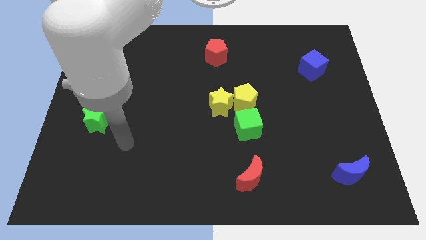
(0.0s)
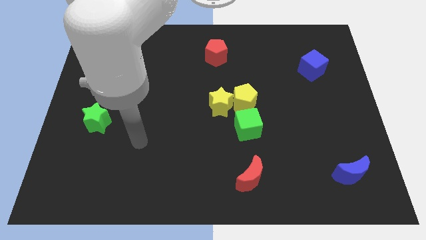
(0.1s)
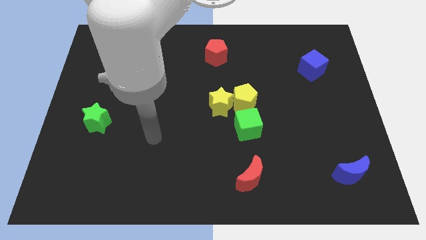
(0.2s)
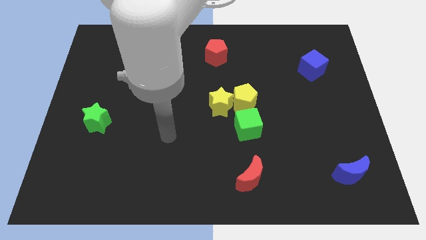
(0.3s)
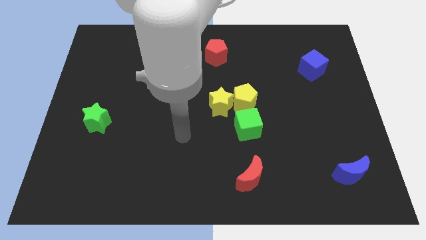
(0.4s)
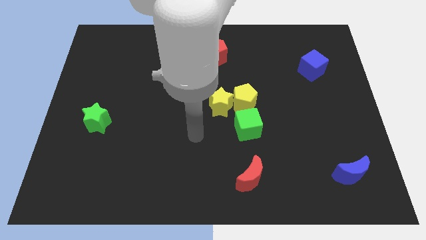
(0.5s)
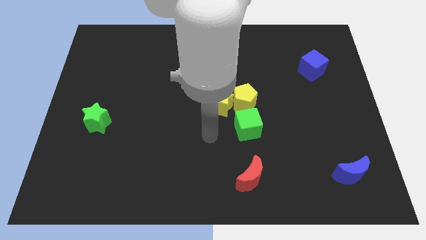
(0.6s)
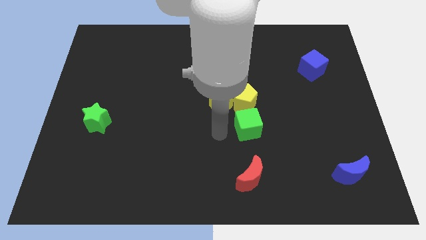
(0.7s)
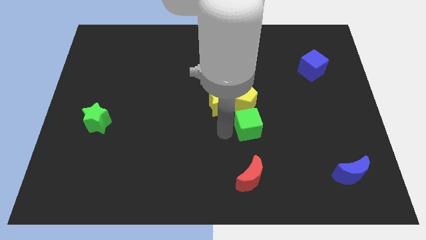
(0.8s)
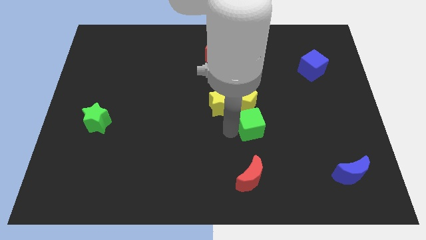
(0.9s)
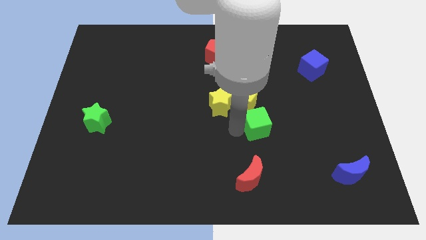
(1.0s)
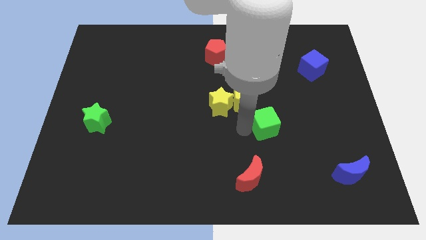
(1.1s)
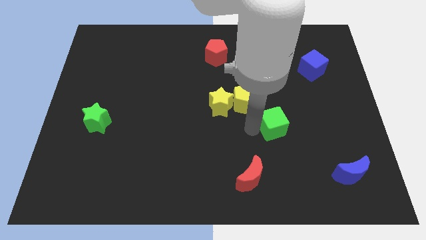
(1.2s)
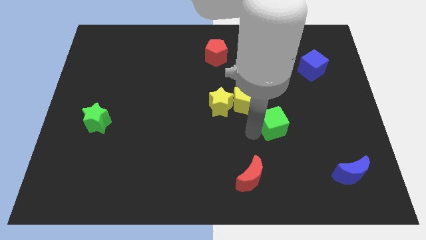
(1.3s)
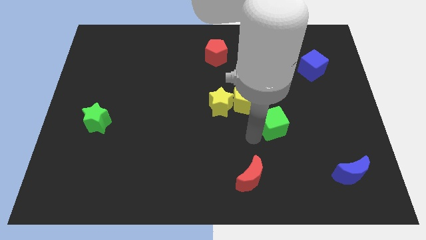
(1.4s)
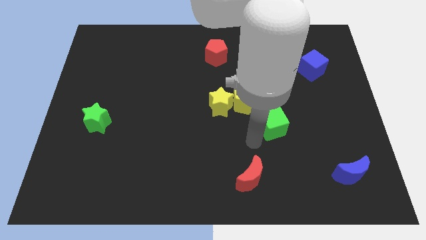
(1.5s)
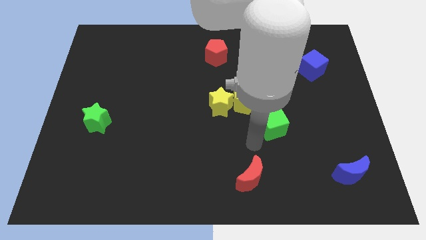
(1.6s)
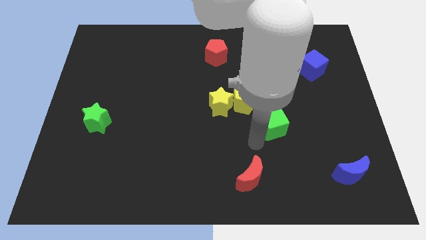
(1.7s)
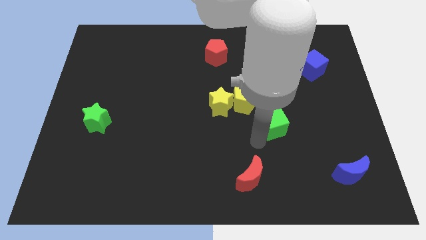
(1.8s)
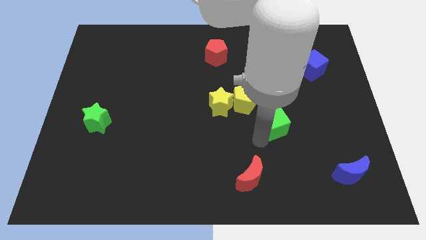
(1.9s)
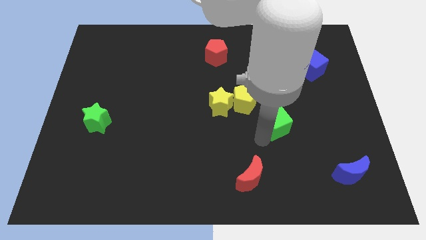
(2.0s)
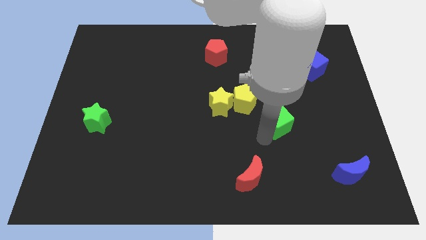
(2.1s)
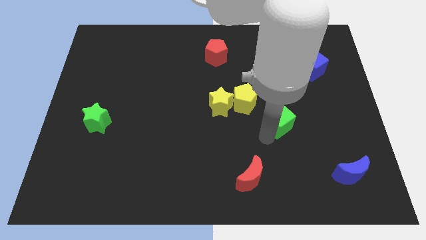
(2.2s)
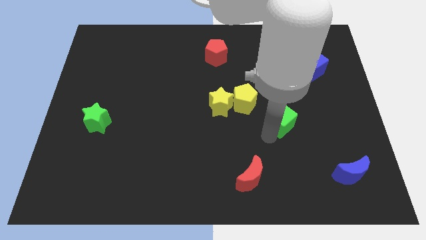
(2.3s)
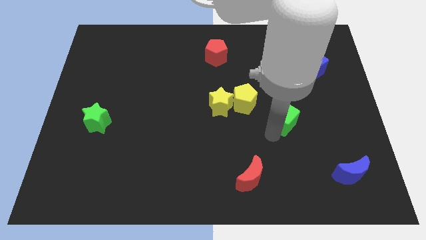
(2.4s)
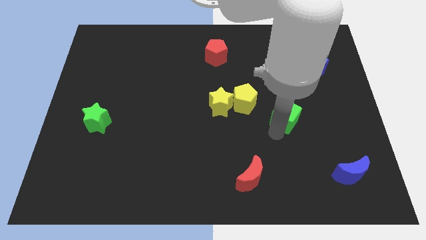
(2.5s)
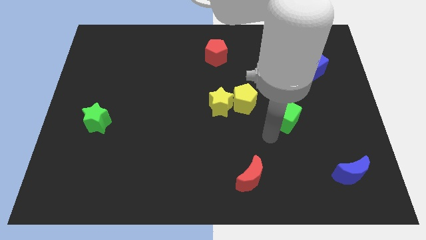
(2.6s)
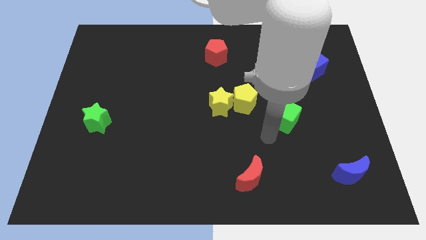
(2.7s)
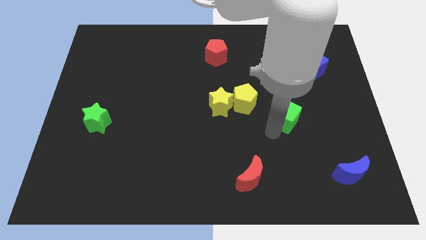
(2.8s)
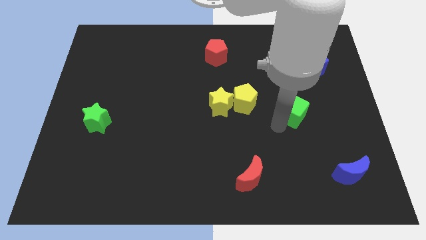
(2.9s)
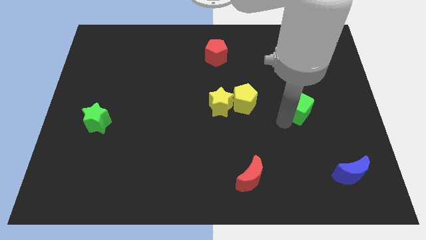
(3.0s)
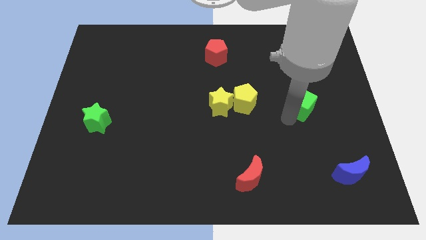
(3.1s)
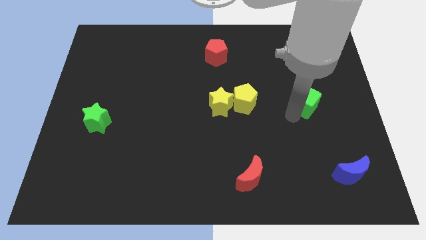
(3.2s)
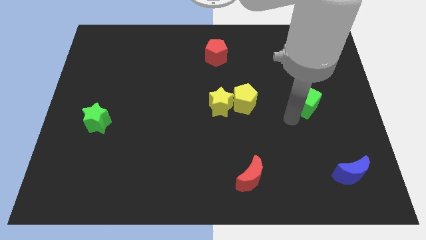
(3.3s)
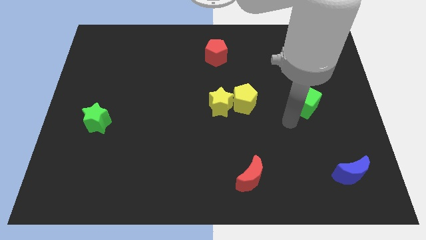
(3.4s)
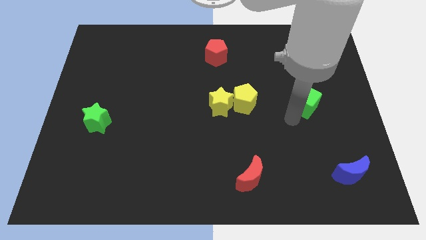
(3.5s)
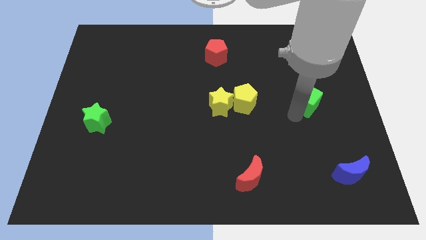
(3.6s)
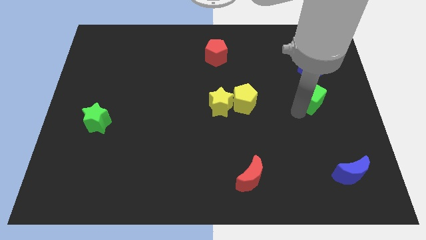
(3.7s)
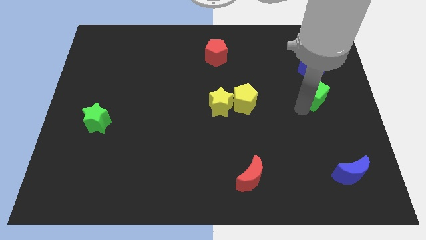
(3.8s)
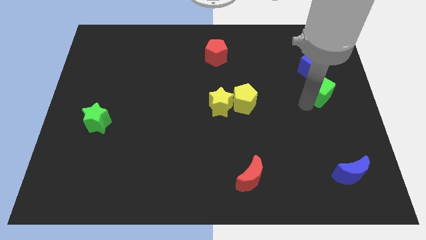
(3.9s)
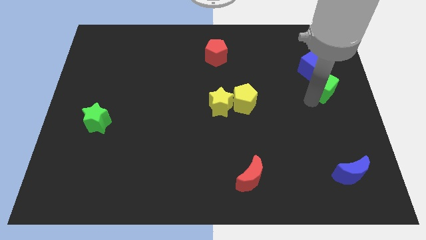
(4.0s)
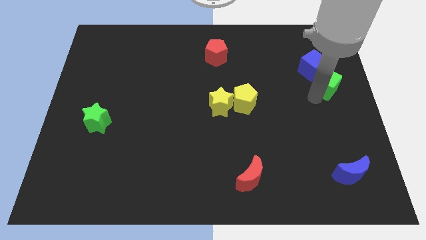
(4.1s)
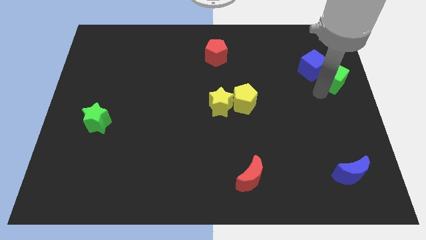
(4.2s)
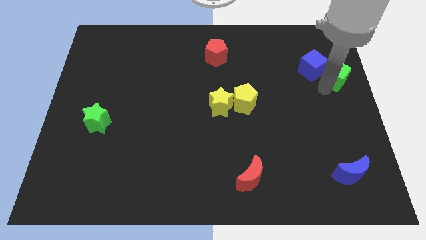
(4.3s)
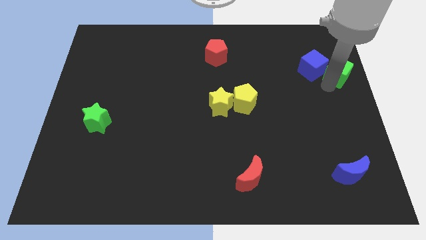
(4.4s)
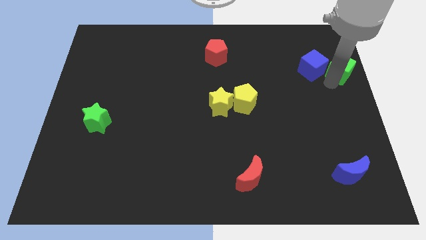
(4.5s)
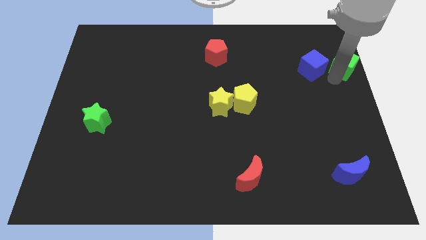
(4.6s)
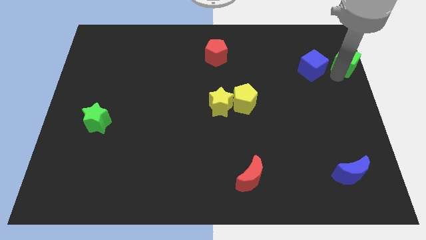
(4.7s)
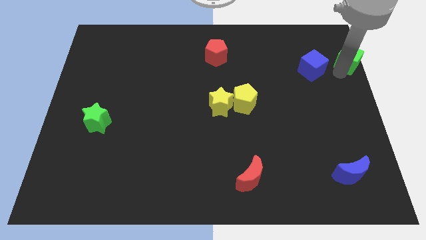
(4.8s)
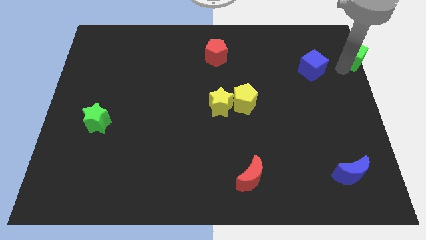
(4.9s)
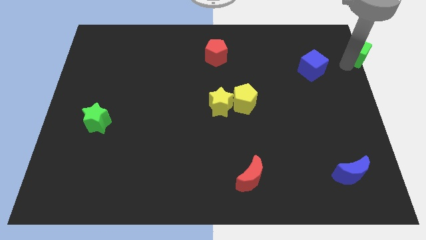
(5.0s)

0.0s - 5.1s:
push the green cube to the top right corner
